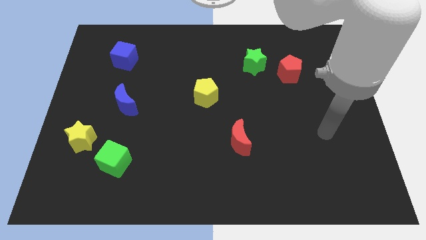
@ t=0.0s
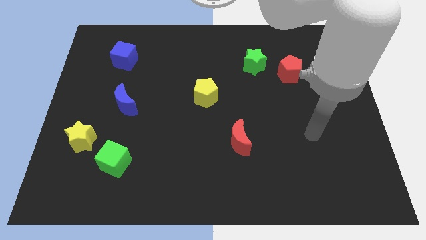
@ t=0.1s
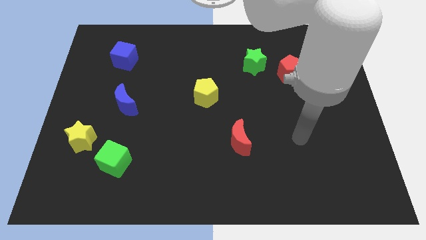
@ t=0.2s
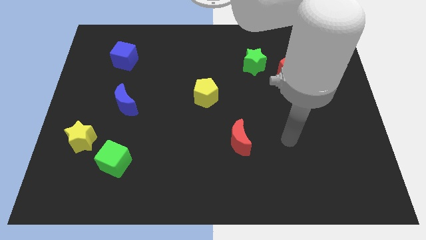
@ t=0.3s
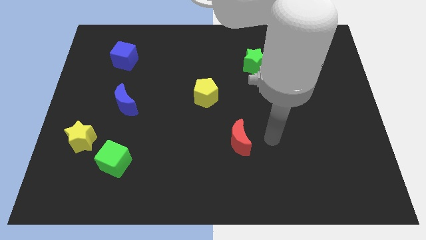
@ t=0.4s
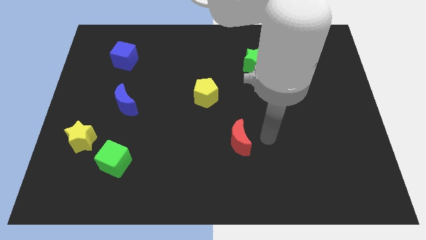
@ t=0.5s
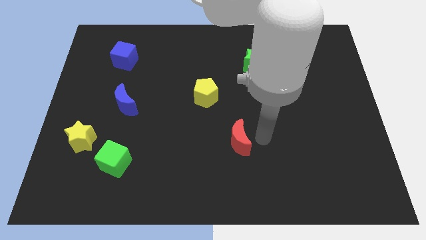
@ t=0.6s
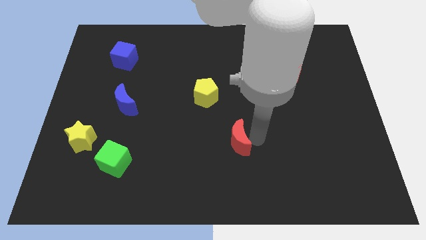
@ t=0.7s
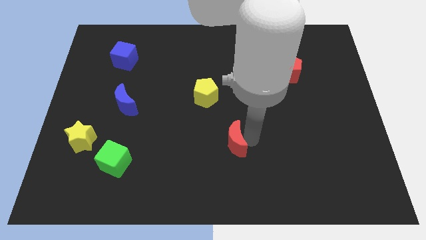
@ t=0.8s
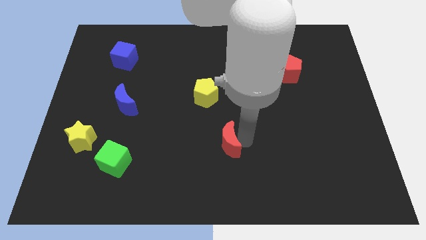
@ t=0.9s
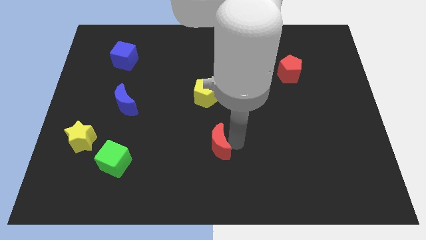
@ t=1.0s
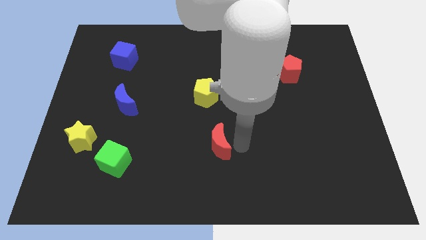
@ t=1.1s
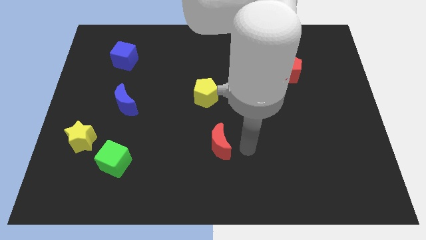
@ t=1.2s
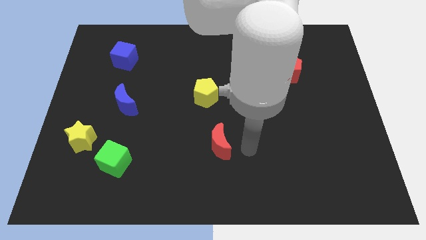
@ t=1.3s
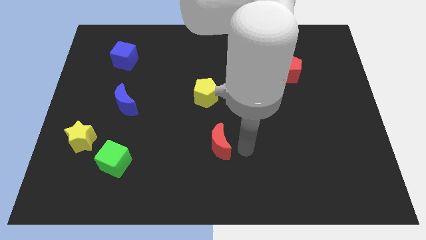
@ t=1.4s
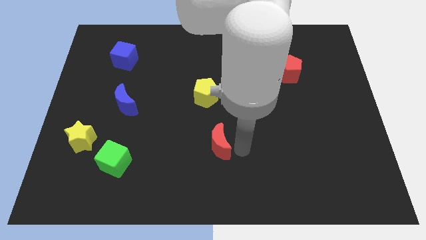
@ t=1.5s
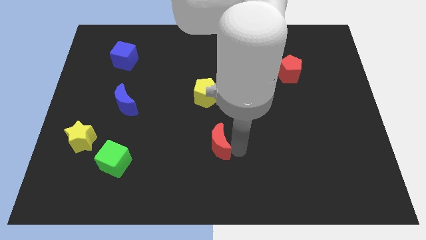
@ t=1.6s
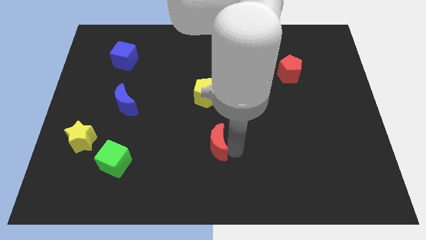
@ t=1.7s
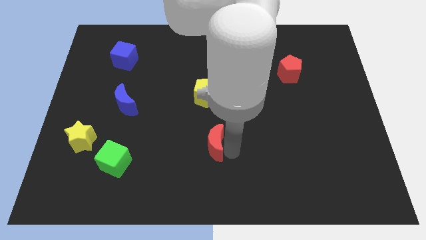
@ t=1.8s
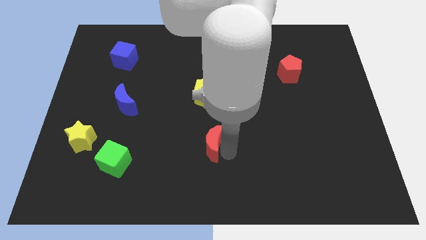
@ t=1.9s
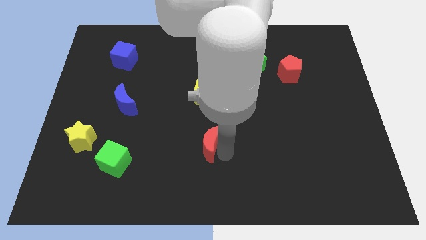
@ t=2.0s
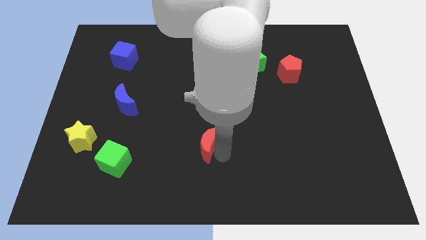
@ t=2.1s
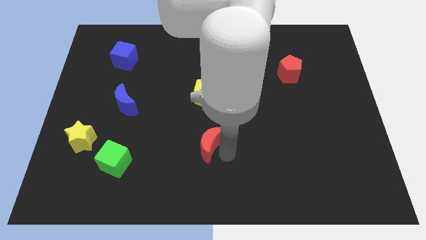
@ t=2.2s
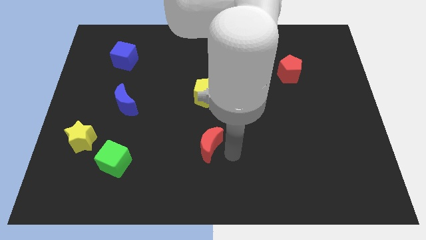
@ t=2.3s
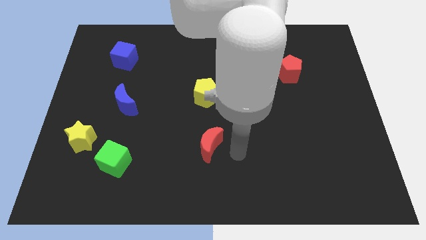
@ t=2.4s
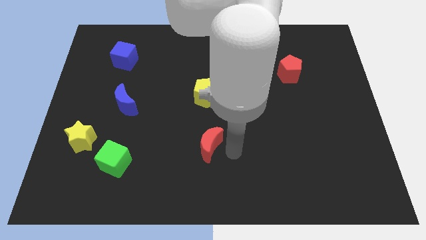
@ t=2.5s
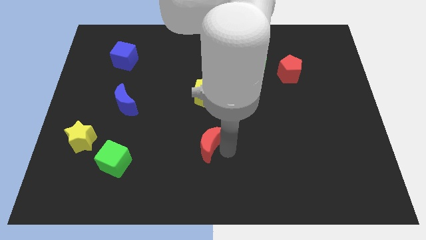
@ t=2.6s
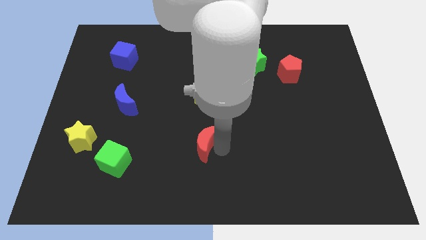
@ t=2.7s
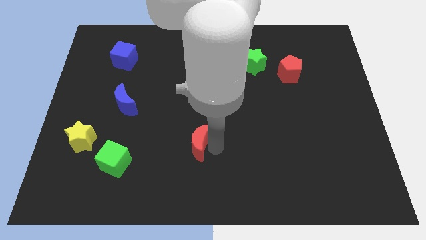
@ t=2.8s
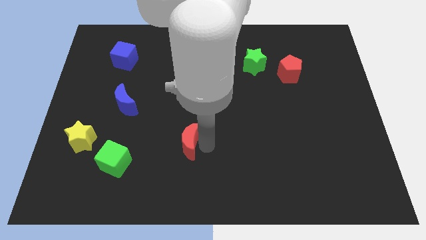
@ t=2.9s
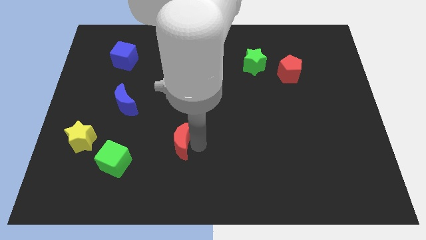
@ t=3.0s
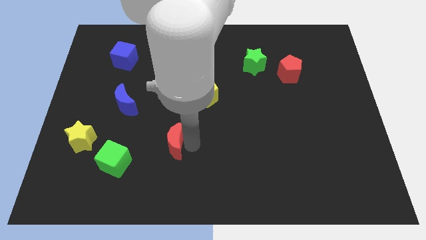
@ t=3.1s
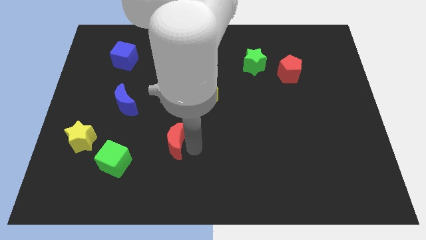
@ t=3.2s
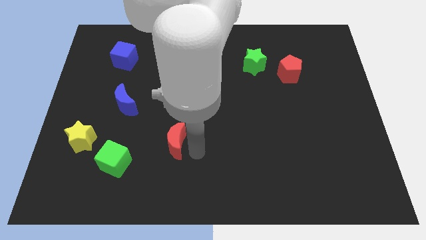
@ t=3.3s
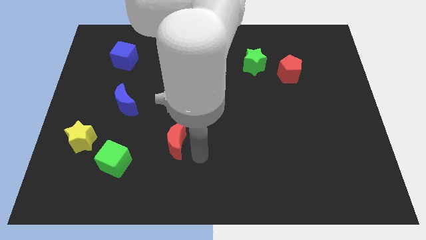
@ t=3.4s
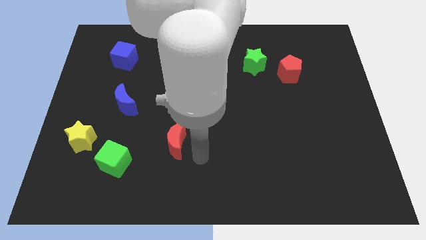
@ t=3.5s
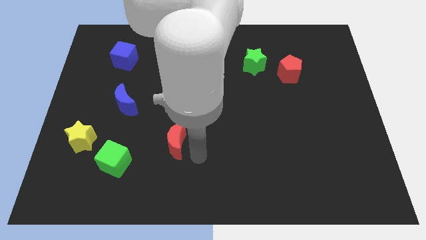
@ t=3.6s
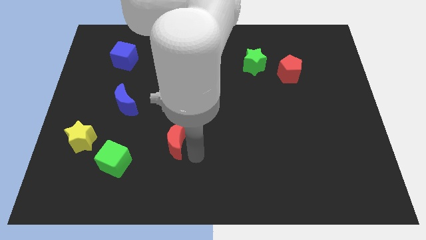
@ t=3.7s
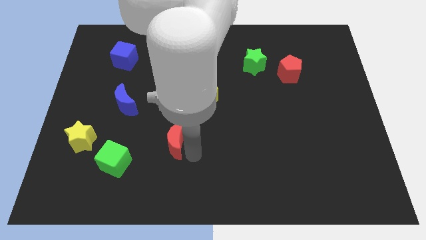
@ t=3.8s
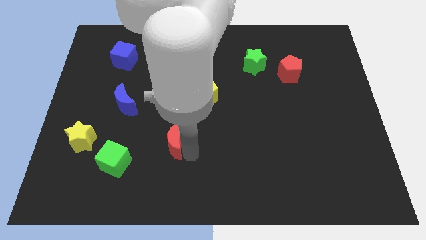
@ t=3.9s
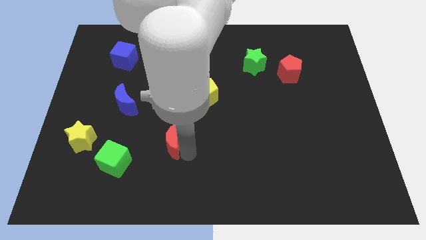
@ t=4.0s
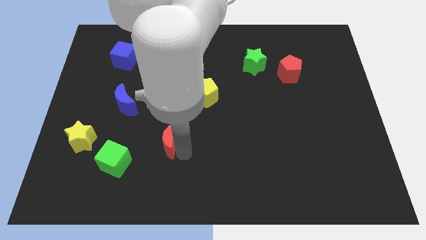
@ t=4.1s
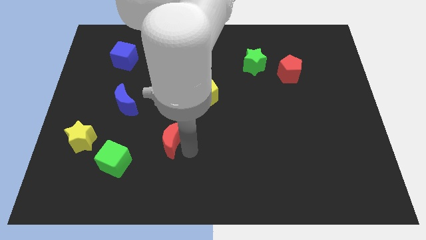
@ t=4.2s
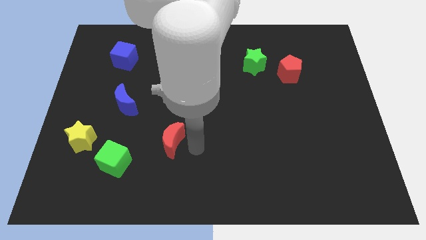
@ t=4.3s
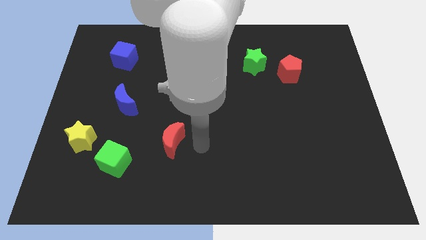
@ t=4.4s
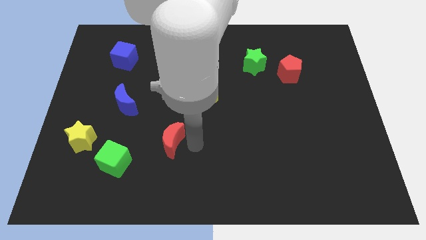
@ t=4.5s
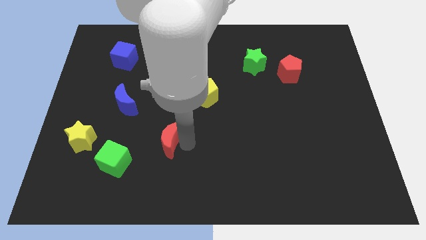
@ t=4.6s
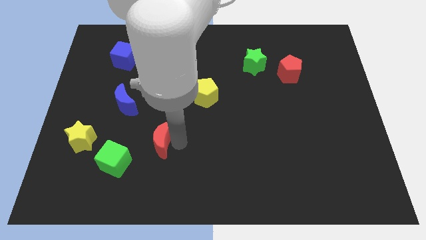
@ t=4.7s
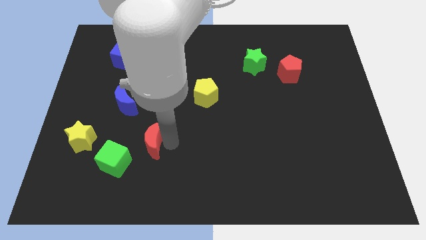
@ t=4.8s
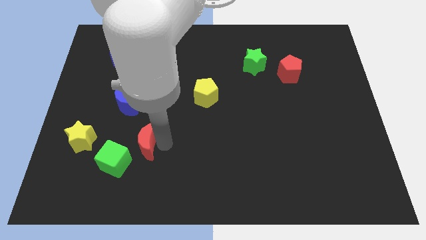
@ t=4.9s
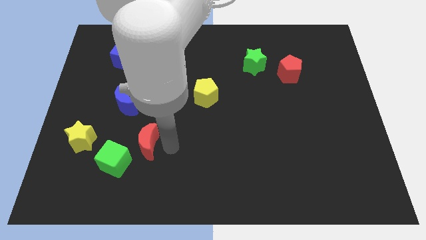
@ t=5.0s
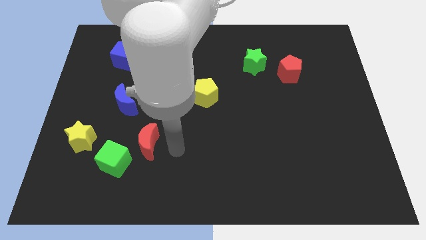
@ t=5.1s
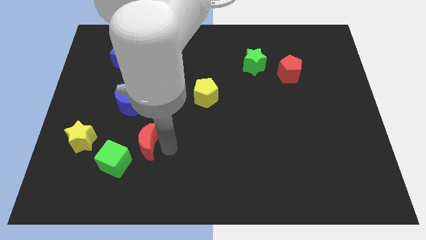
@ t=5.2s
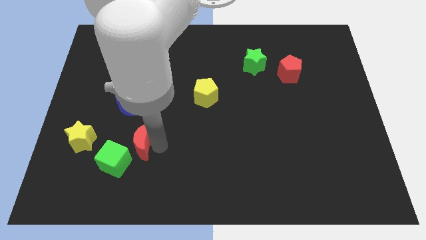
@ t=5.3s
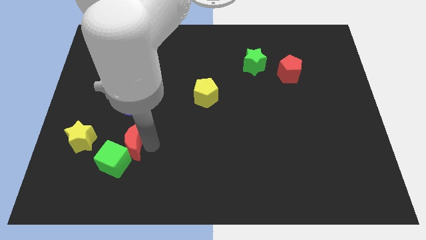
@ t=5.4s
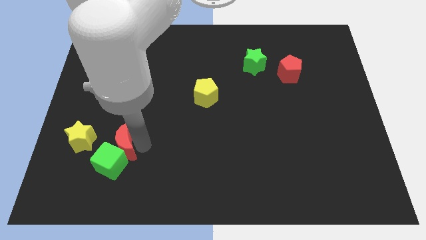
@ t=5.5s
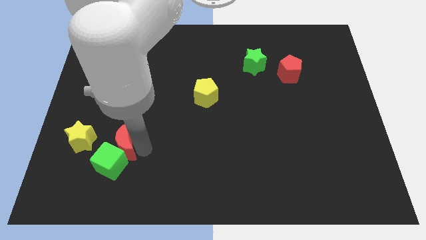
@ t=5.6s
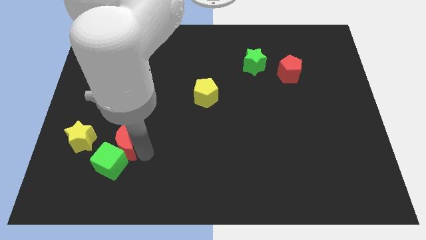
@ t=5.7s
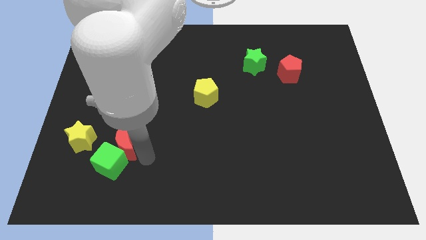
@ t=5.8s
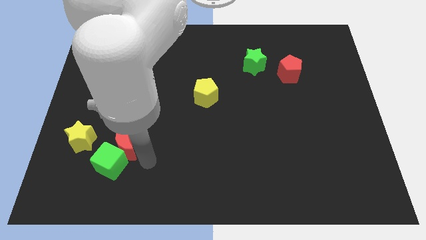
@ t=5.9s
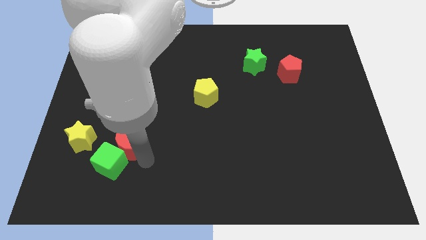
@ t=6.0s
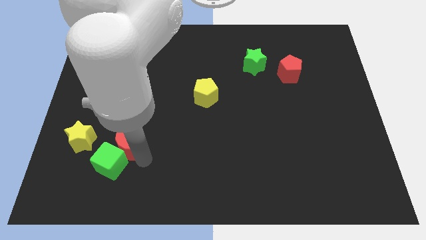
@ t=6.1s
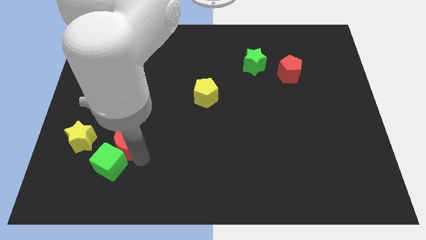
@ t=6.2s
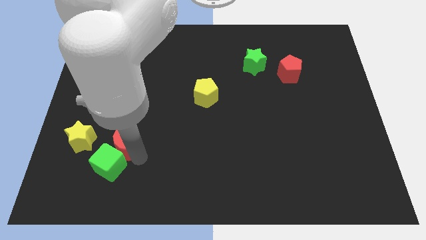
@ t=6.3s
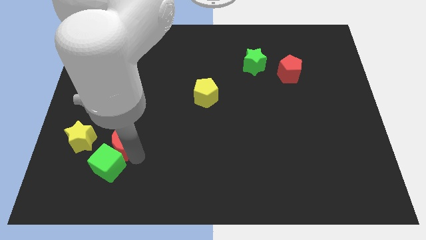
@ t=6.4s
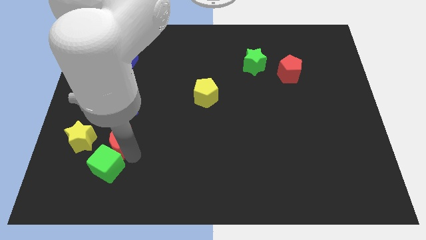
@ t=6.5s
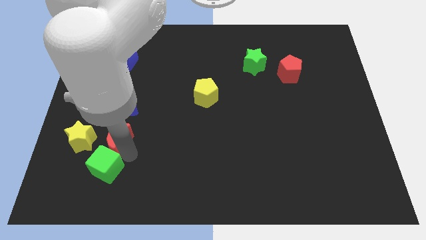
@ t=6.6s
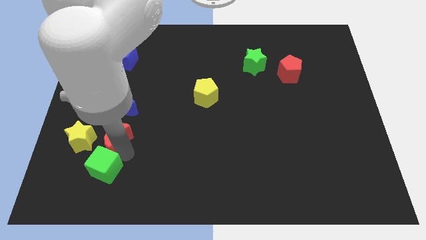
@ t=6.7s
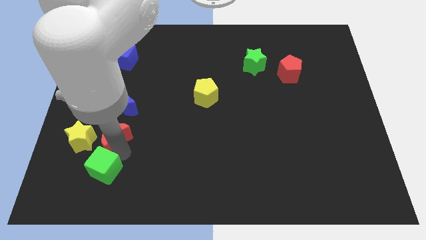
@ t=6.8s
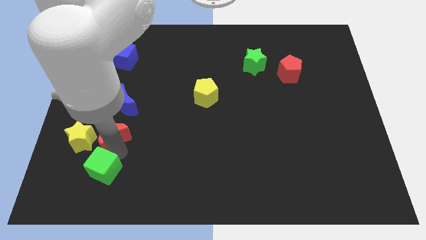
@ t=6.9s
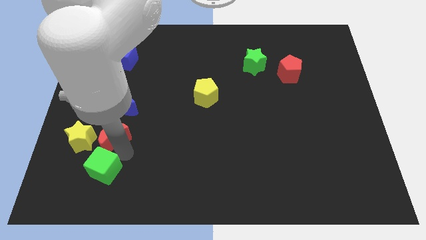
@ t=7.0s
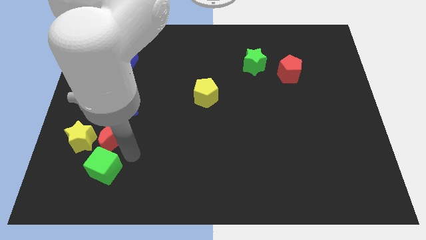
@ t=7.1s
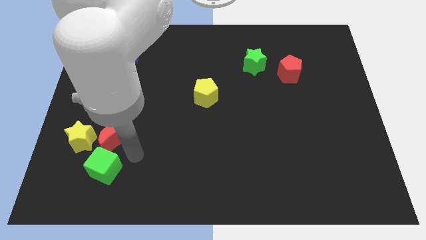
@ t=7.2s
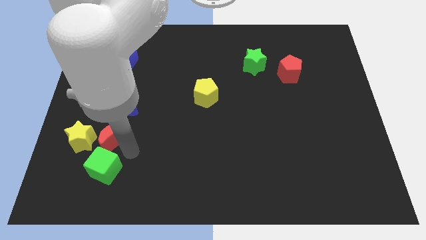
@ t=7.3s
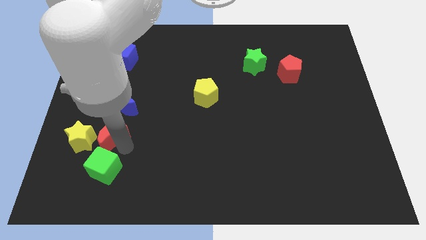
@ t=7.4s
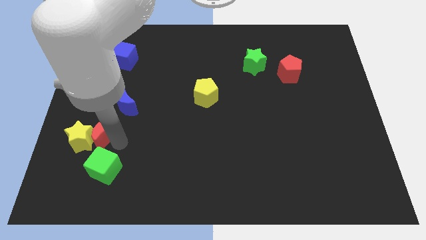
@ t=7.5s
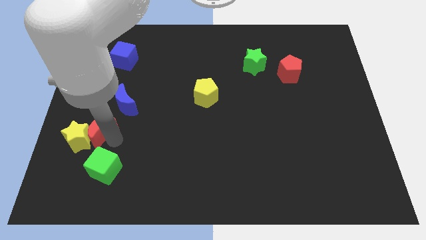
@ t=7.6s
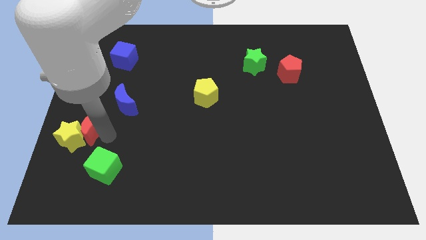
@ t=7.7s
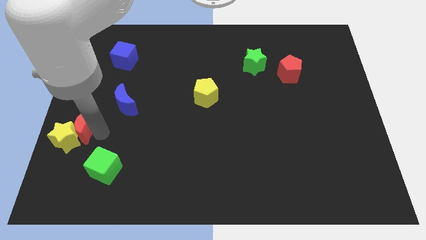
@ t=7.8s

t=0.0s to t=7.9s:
put the red moon to the left side
